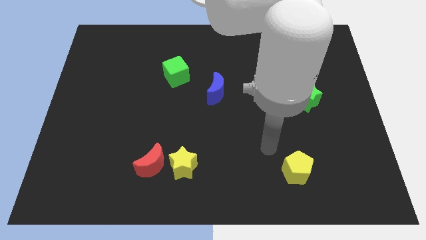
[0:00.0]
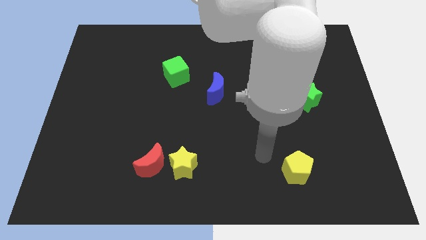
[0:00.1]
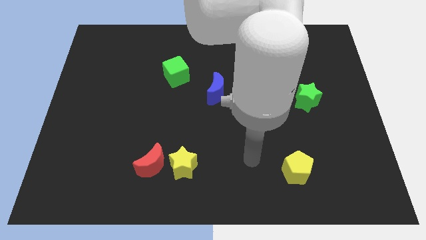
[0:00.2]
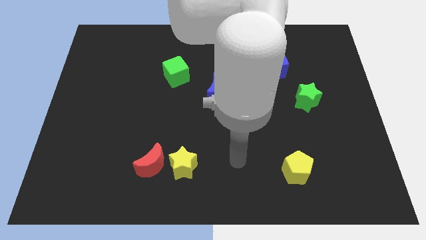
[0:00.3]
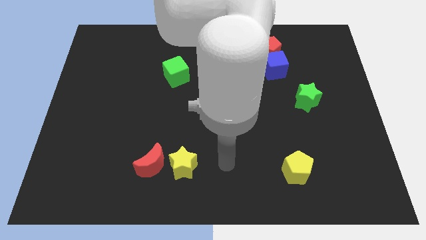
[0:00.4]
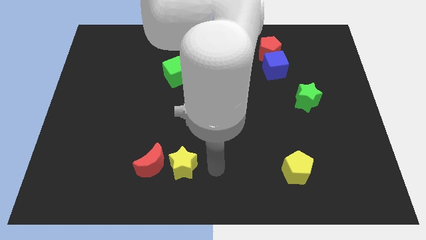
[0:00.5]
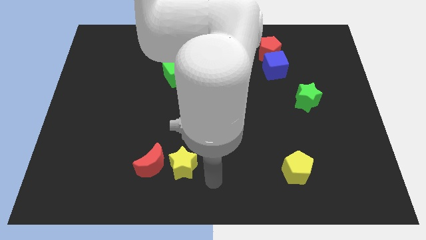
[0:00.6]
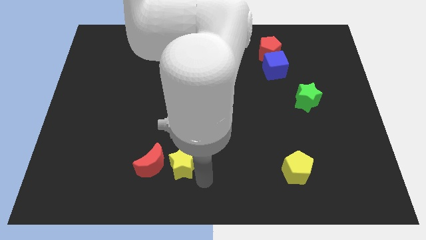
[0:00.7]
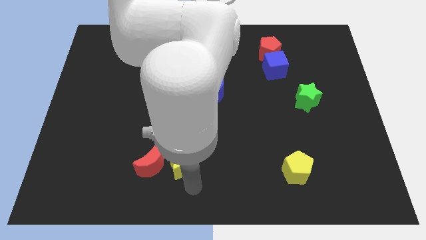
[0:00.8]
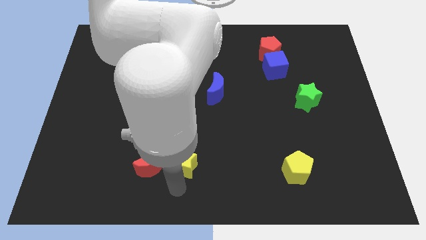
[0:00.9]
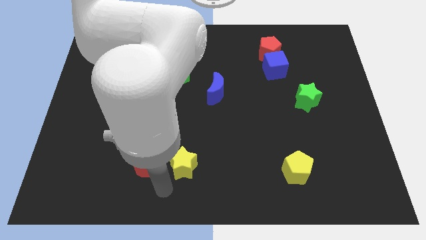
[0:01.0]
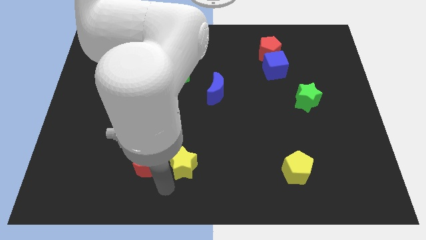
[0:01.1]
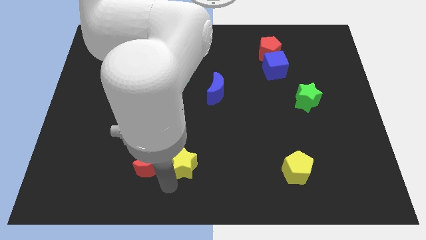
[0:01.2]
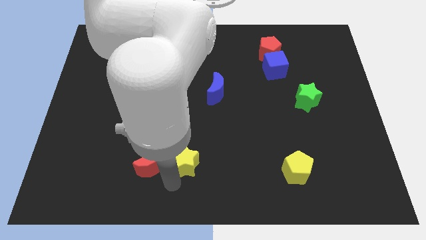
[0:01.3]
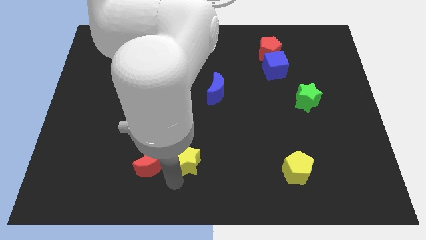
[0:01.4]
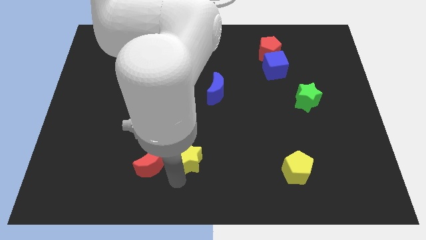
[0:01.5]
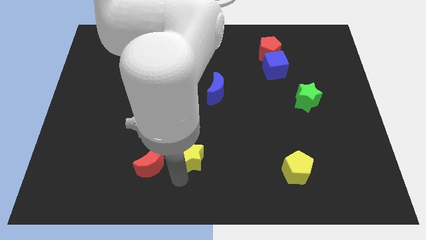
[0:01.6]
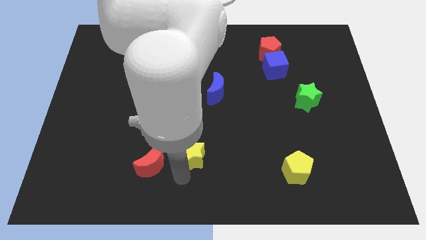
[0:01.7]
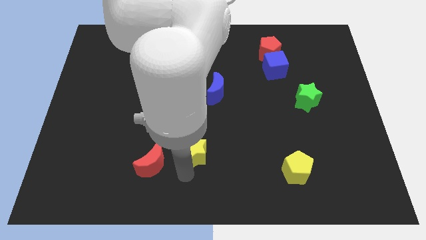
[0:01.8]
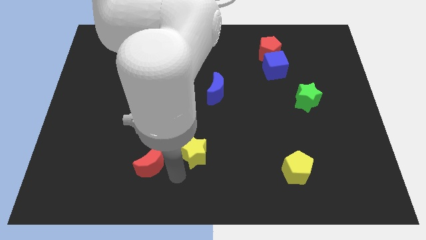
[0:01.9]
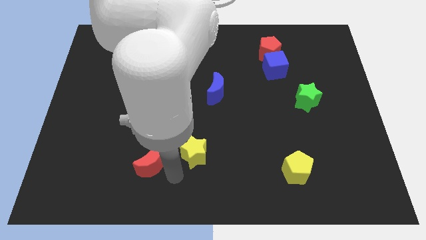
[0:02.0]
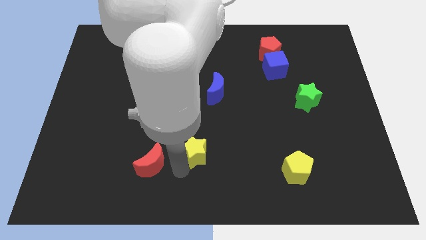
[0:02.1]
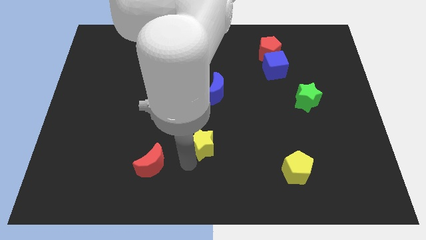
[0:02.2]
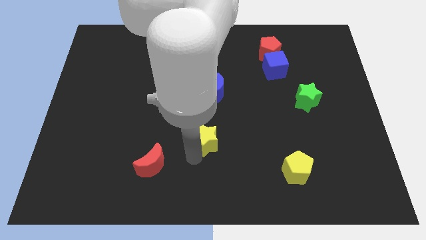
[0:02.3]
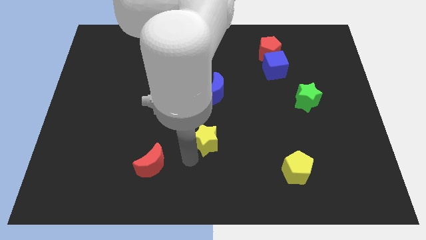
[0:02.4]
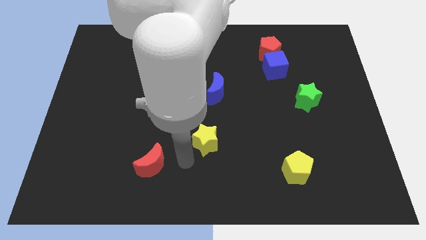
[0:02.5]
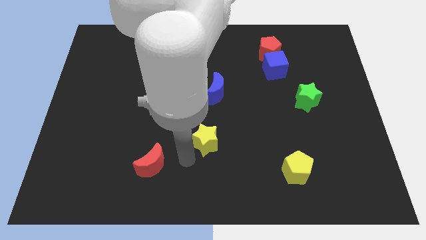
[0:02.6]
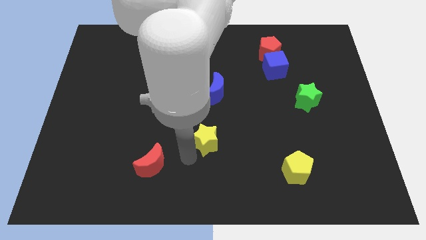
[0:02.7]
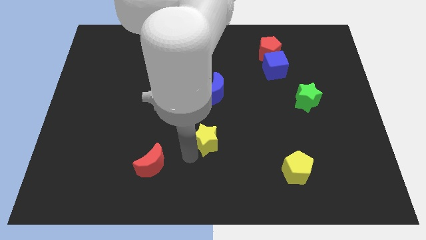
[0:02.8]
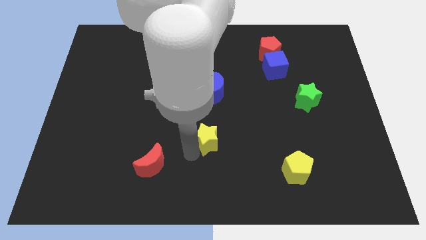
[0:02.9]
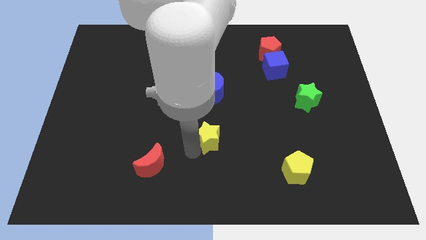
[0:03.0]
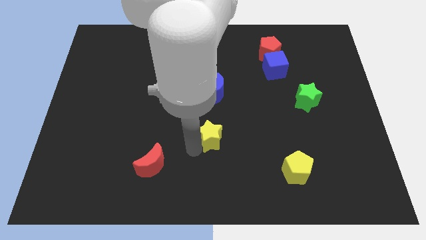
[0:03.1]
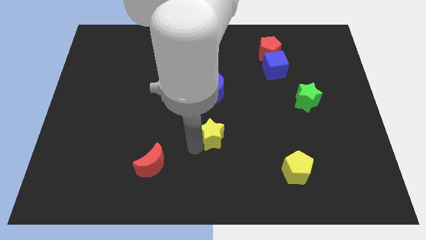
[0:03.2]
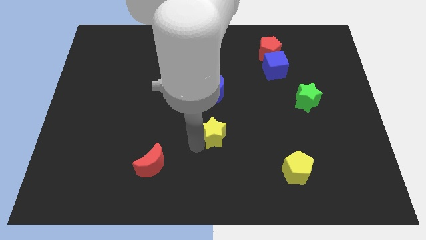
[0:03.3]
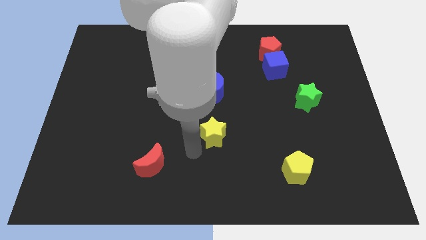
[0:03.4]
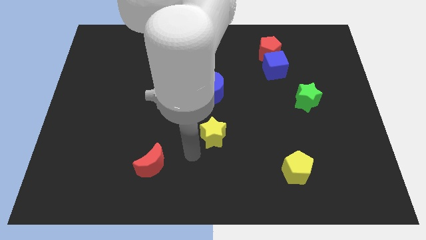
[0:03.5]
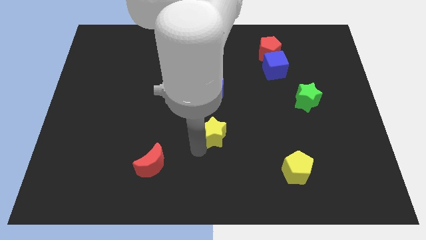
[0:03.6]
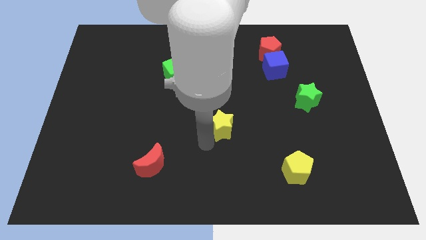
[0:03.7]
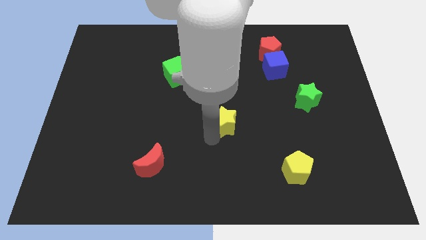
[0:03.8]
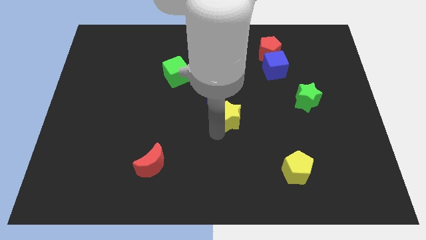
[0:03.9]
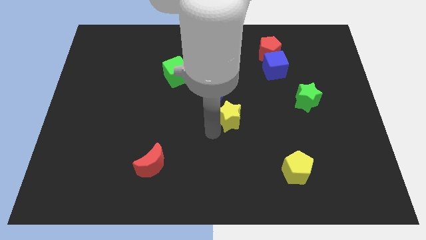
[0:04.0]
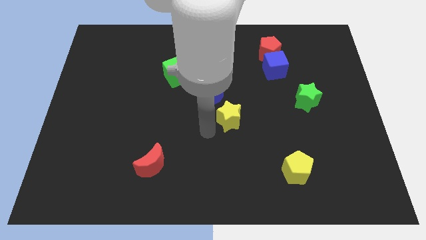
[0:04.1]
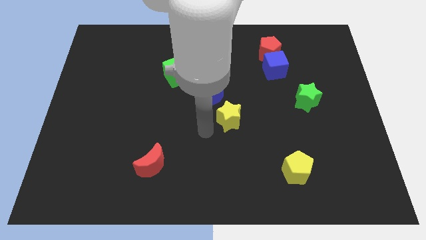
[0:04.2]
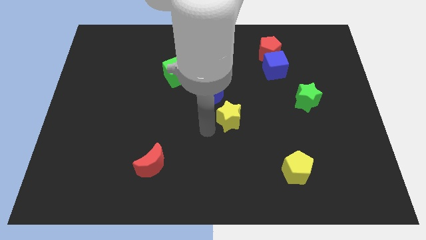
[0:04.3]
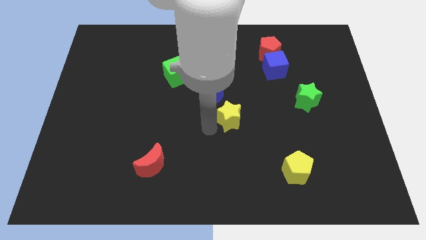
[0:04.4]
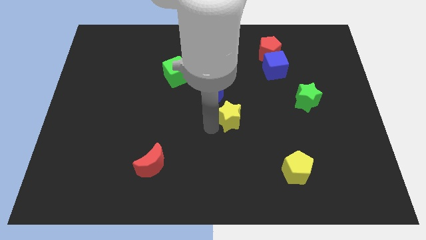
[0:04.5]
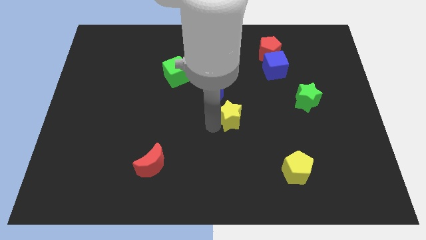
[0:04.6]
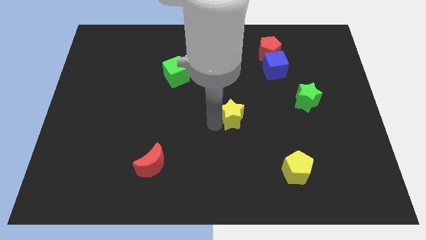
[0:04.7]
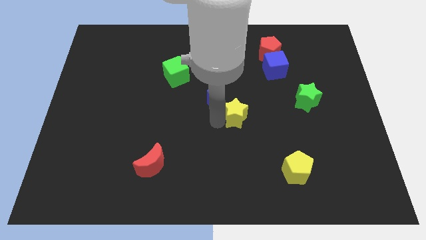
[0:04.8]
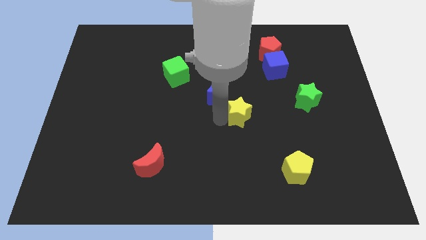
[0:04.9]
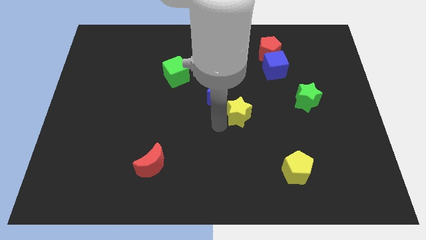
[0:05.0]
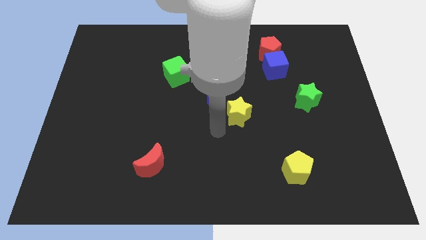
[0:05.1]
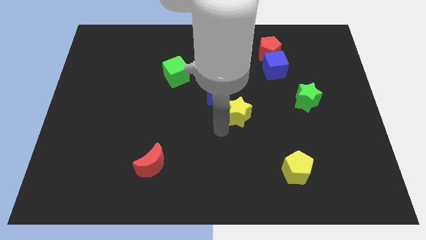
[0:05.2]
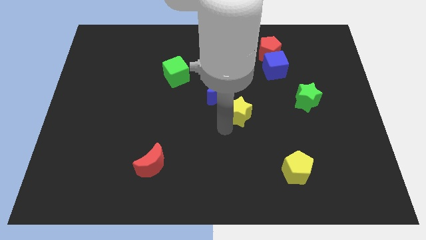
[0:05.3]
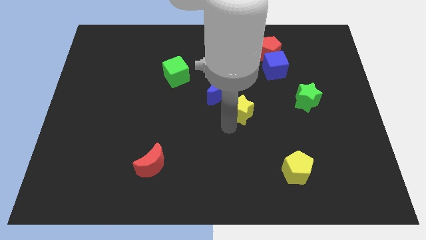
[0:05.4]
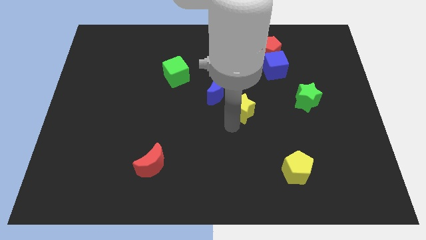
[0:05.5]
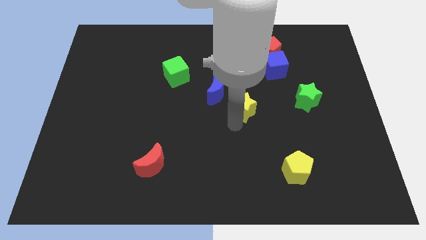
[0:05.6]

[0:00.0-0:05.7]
push the yellow star up and then to the right

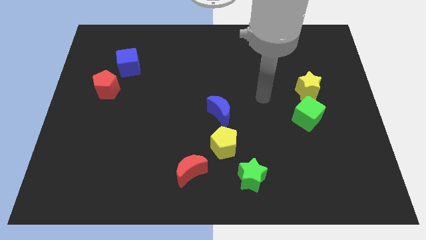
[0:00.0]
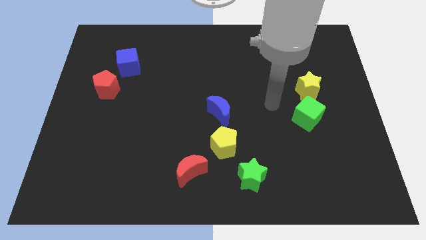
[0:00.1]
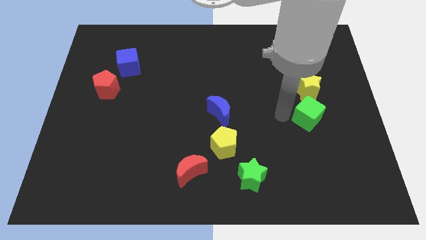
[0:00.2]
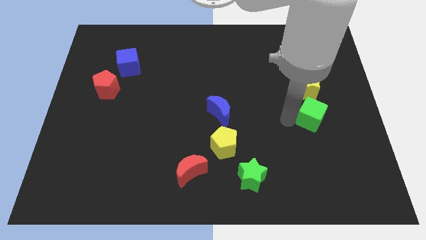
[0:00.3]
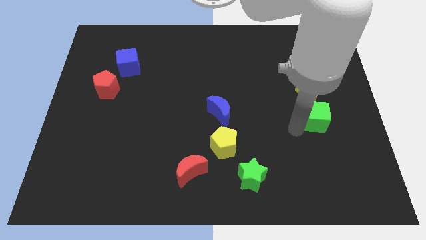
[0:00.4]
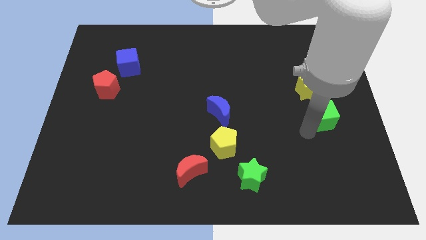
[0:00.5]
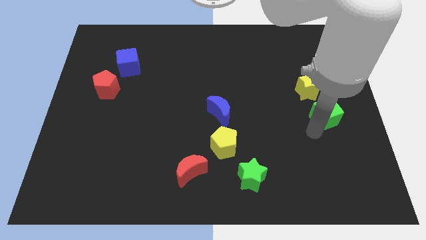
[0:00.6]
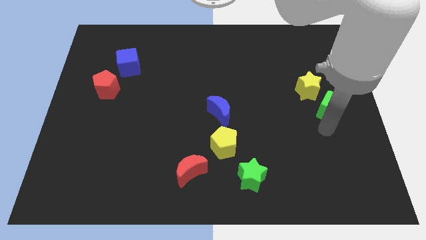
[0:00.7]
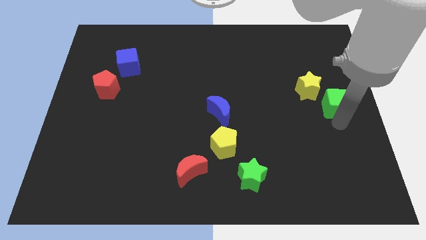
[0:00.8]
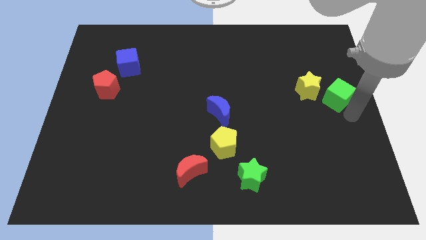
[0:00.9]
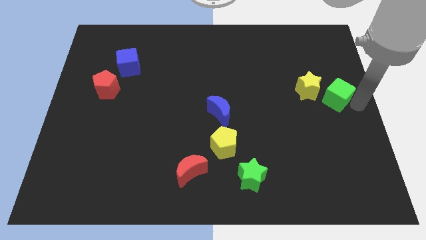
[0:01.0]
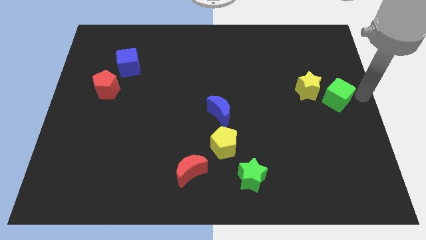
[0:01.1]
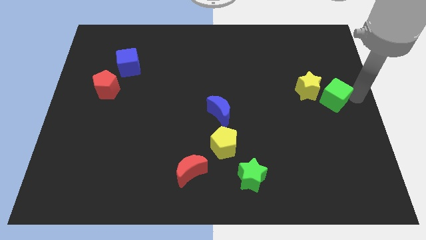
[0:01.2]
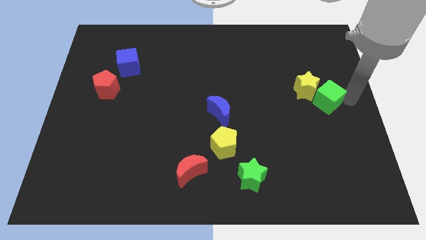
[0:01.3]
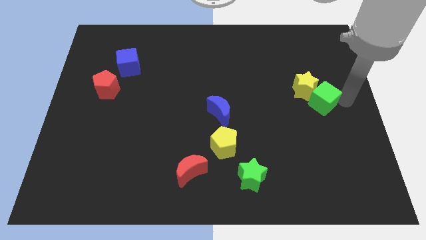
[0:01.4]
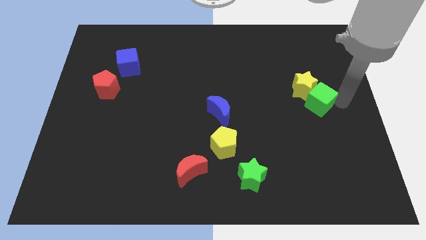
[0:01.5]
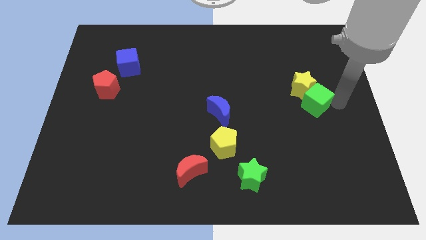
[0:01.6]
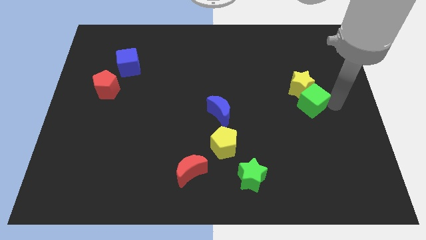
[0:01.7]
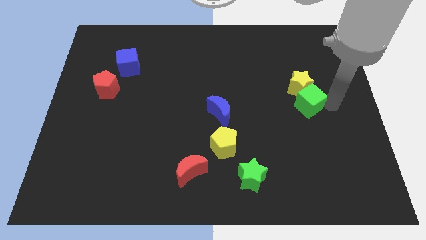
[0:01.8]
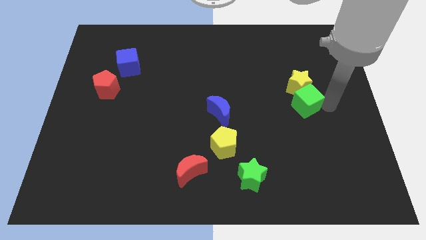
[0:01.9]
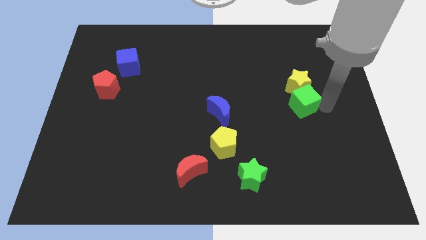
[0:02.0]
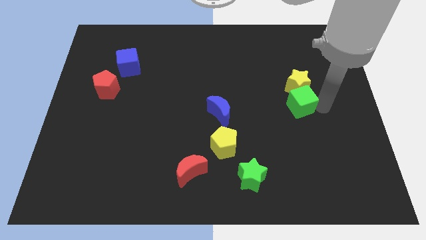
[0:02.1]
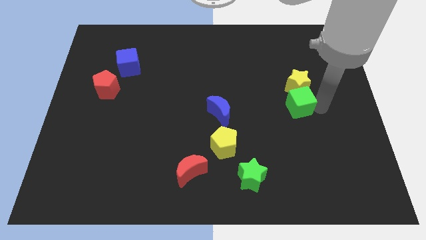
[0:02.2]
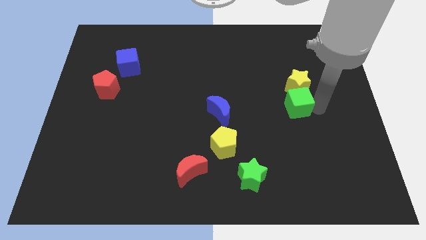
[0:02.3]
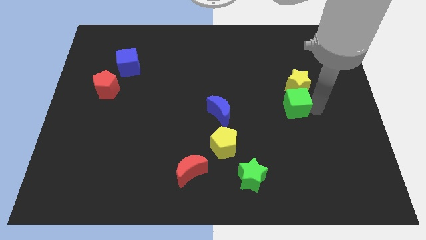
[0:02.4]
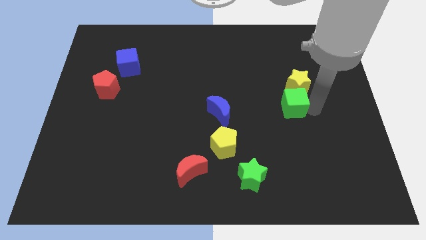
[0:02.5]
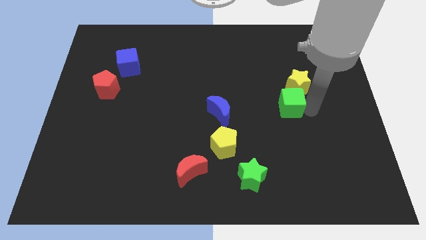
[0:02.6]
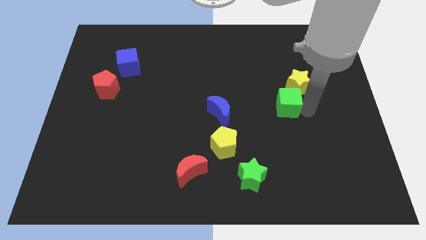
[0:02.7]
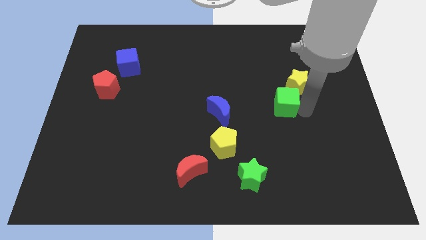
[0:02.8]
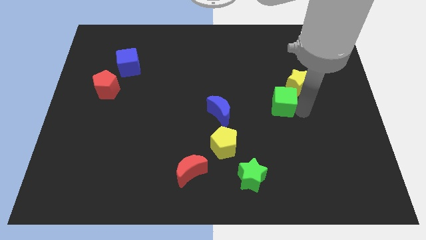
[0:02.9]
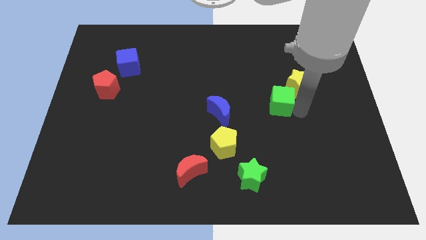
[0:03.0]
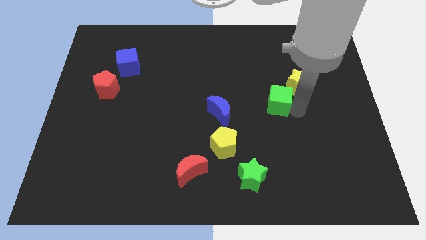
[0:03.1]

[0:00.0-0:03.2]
push the green cube somewhat up and then to the left
